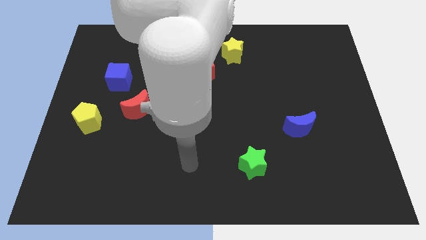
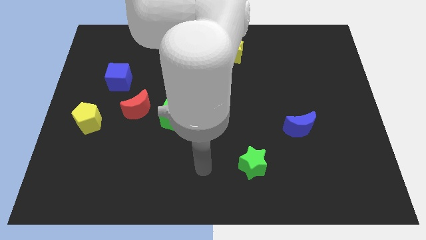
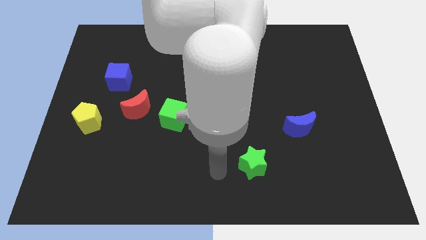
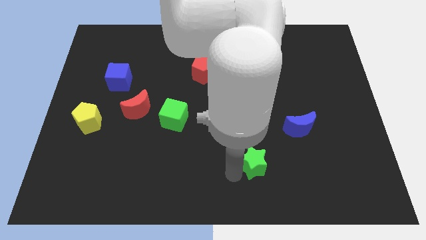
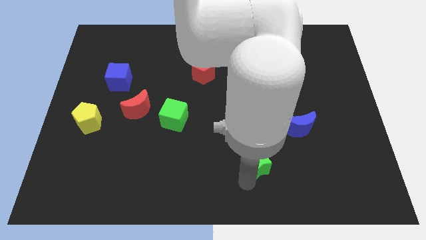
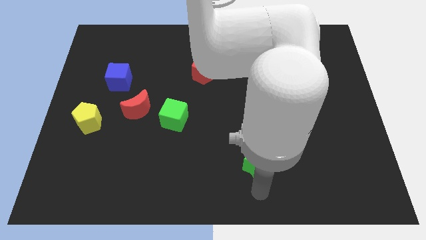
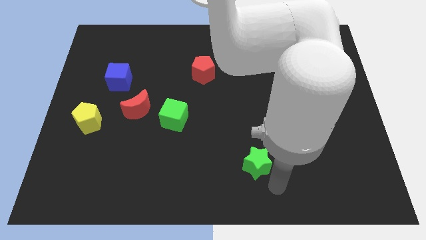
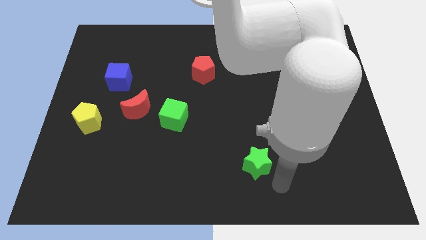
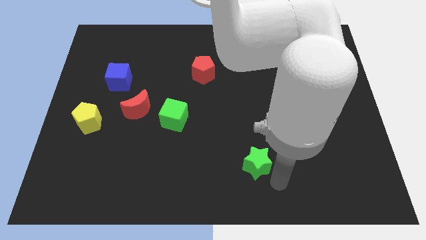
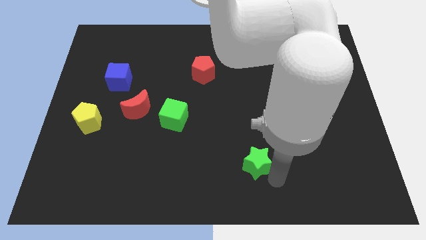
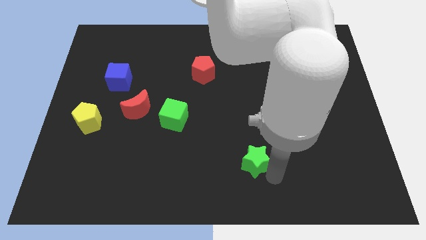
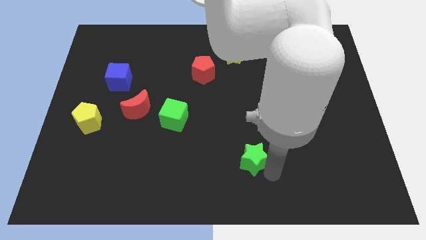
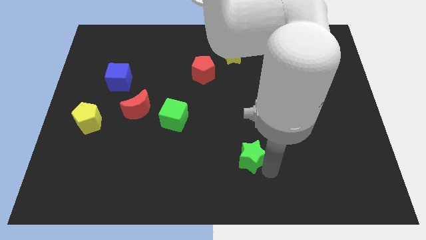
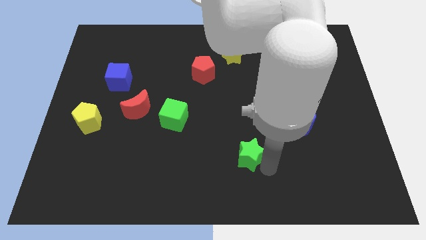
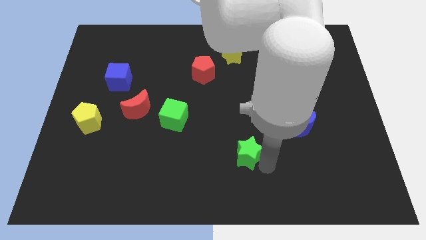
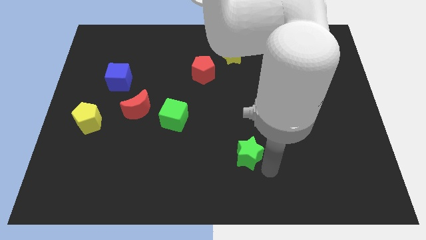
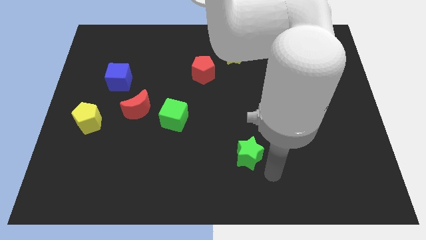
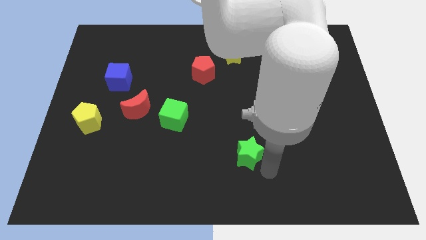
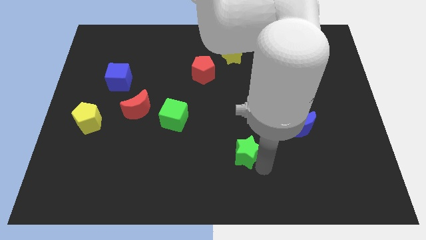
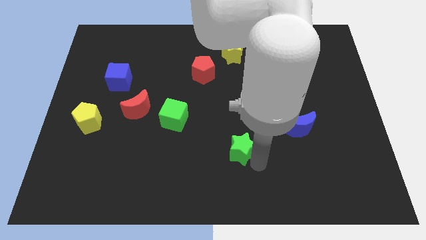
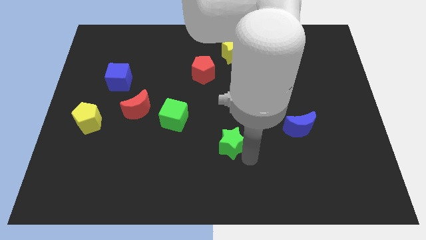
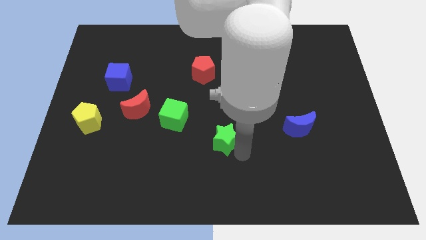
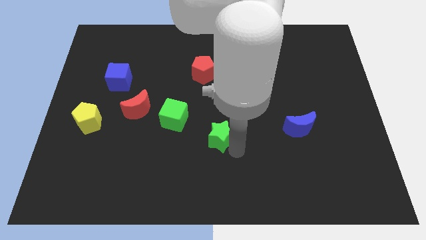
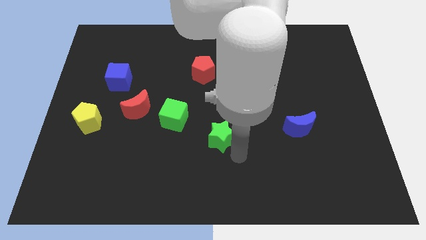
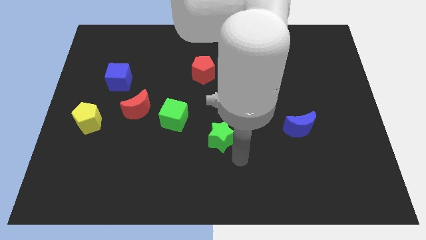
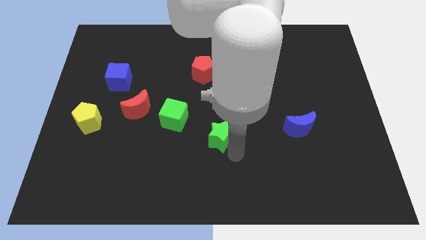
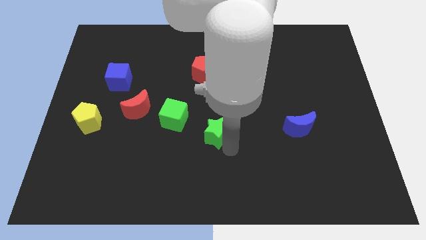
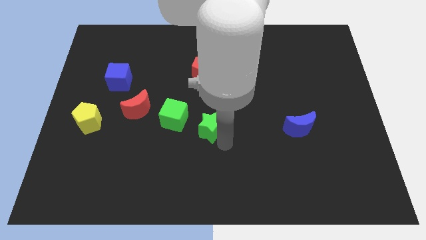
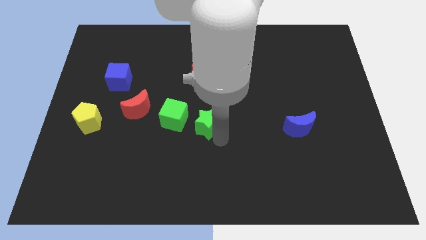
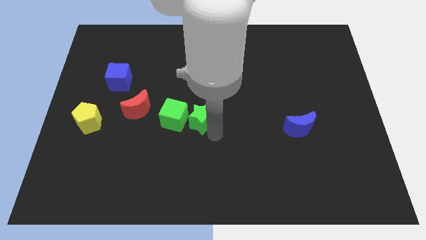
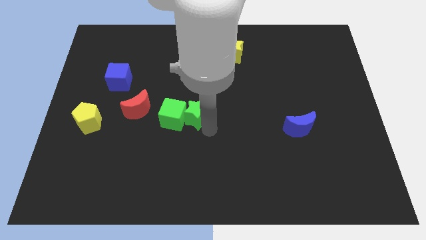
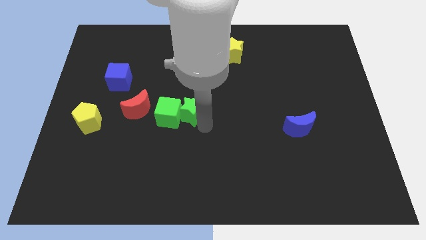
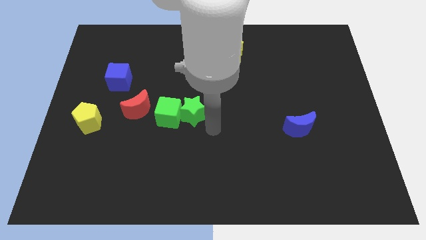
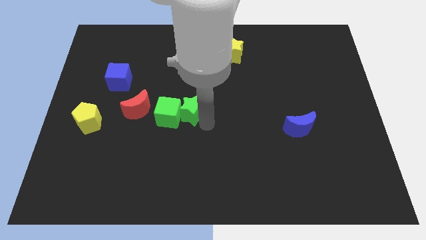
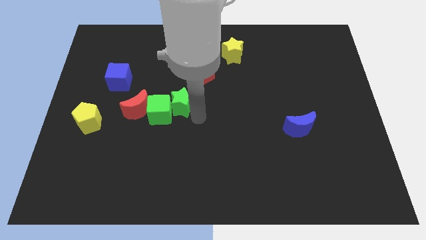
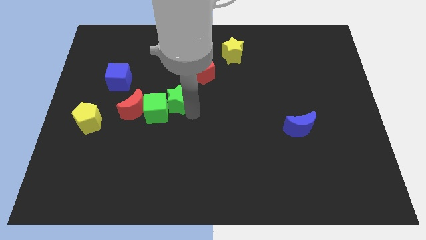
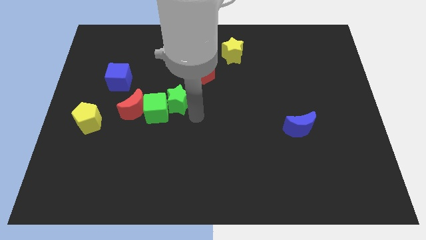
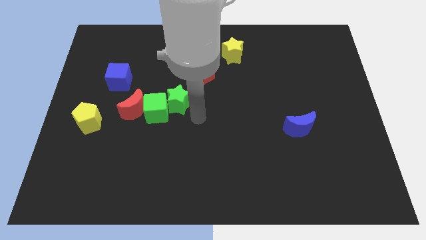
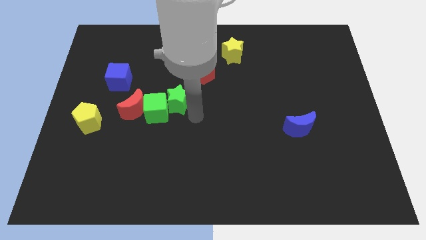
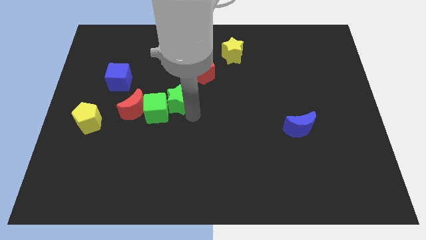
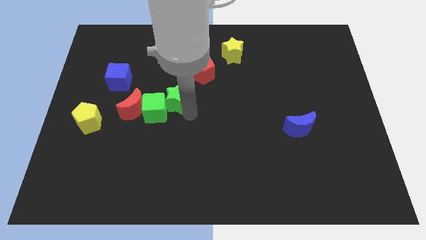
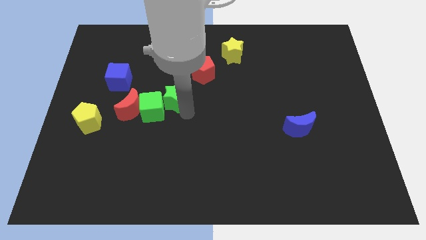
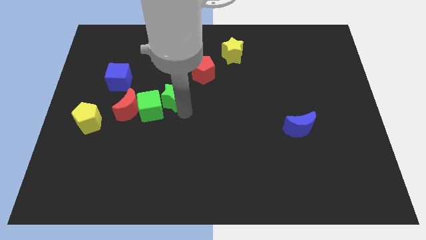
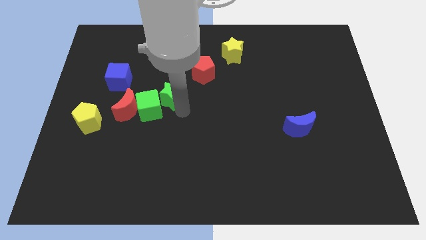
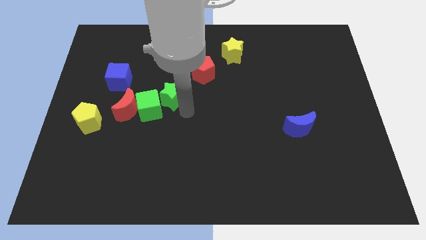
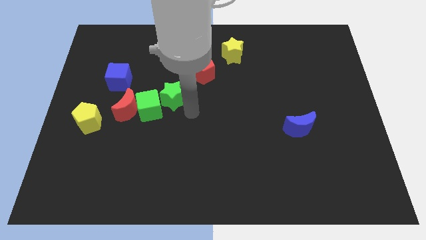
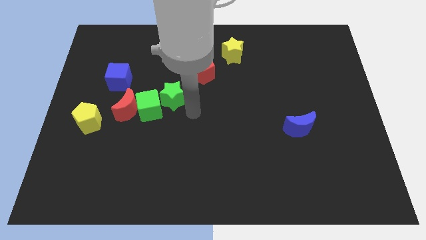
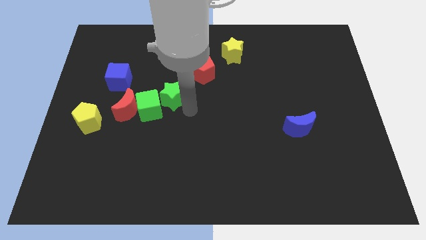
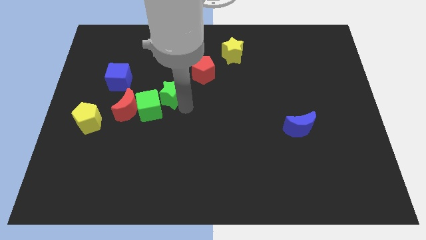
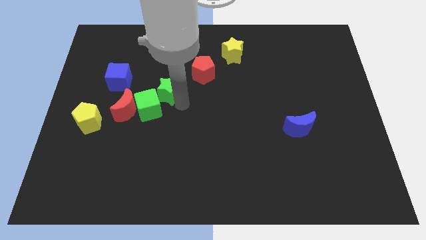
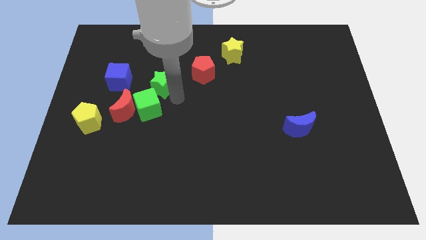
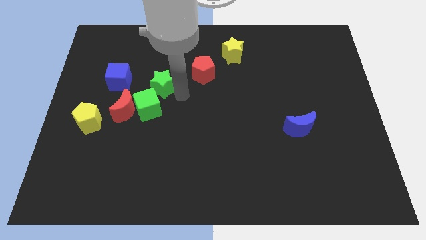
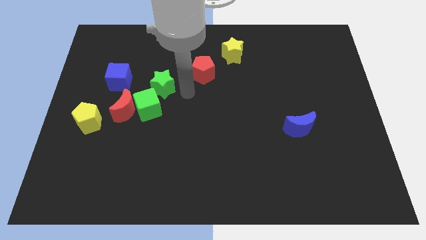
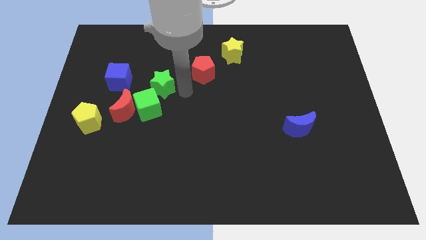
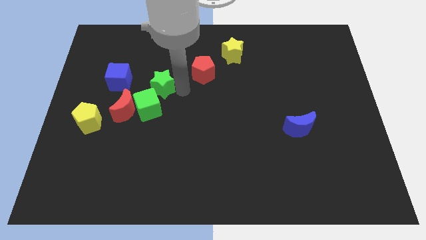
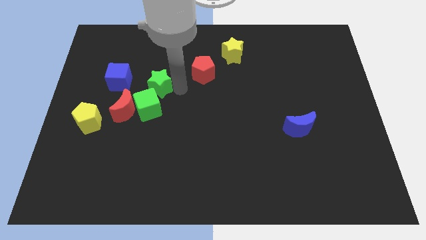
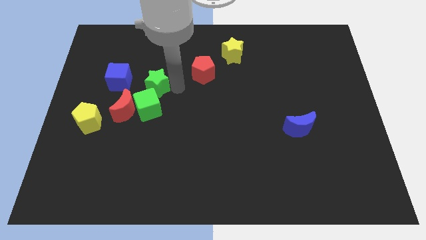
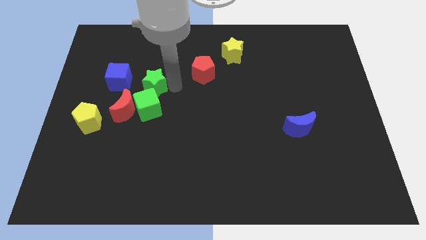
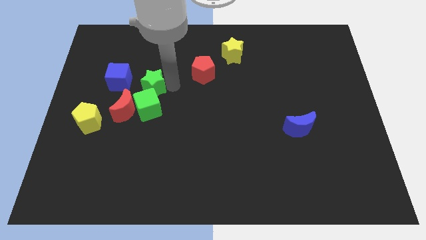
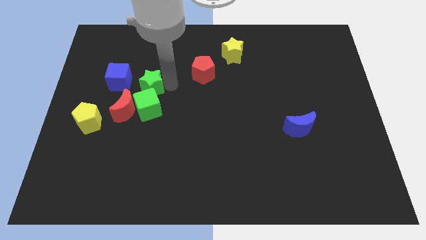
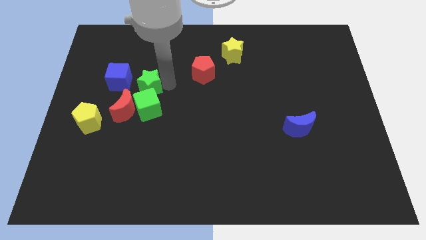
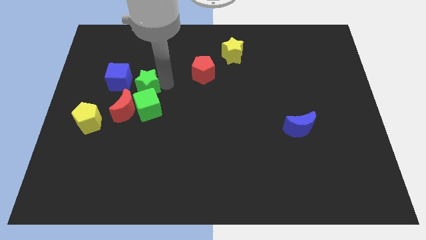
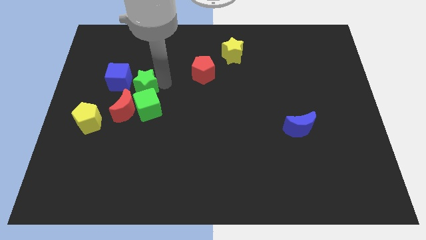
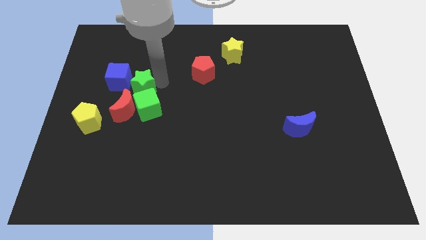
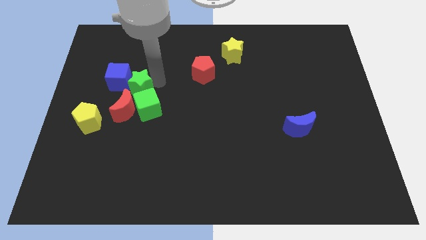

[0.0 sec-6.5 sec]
push the green star next to the blue cube

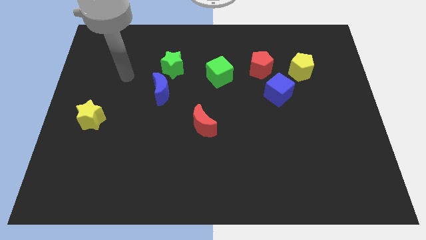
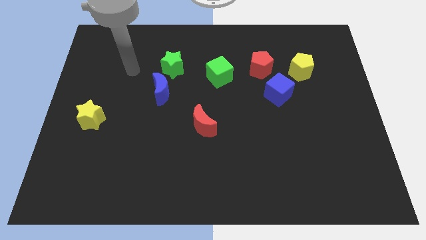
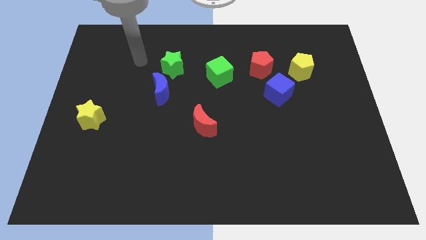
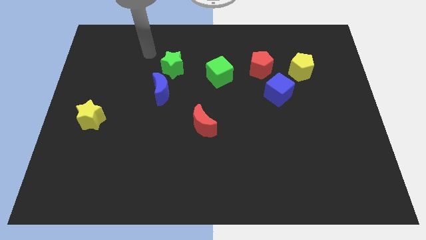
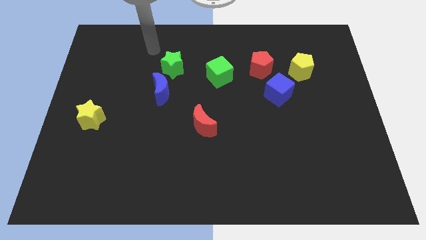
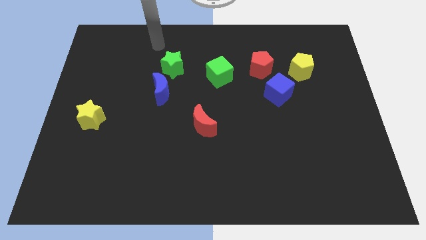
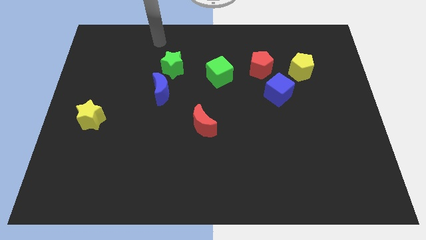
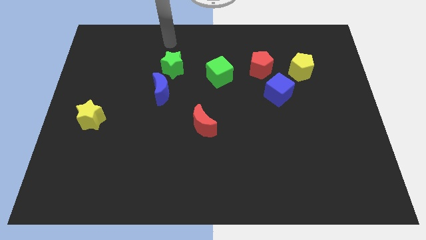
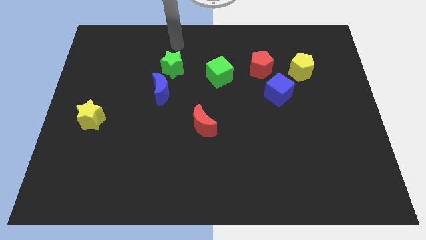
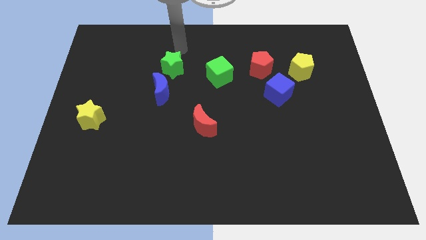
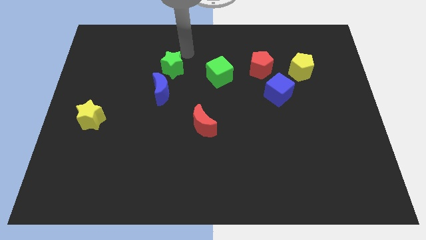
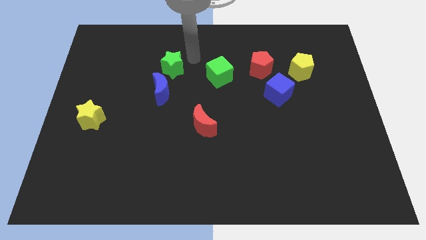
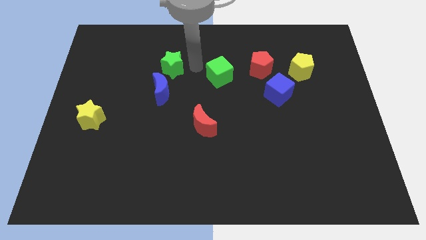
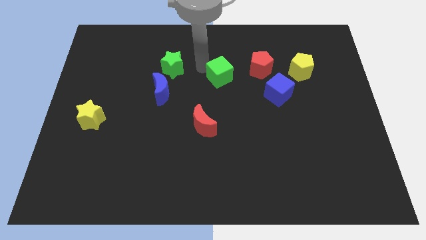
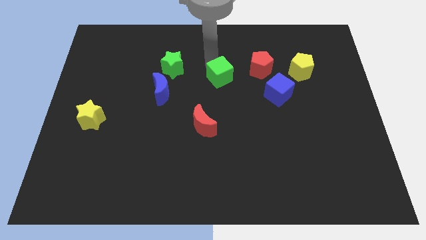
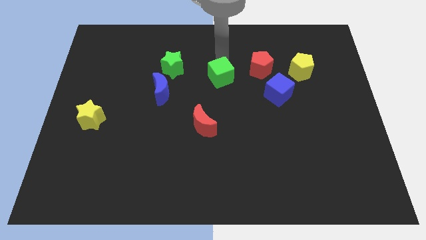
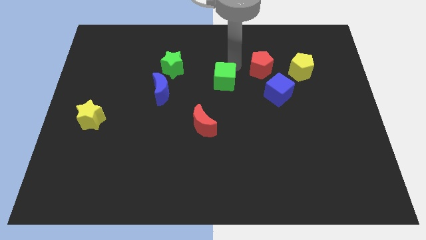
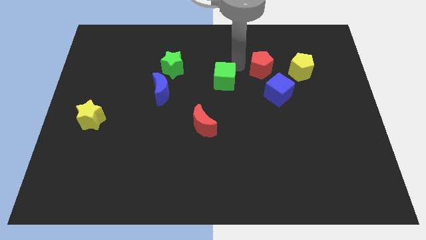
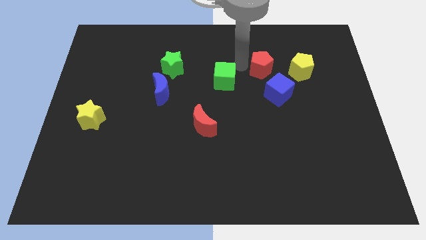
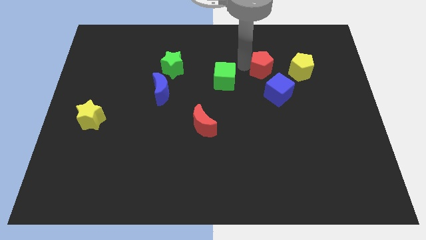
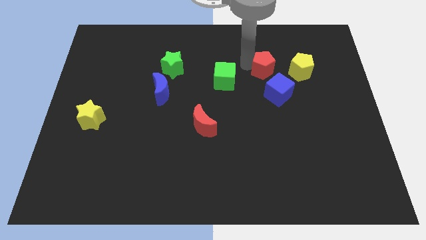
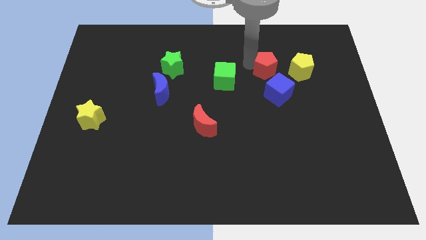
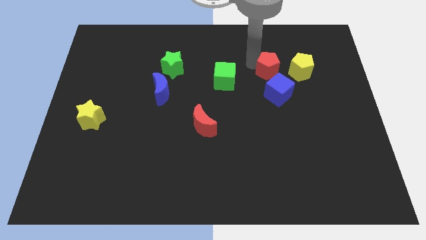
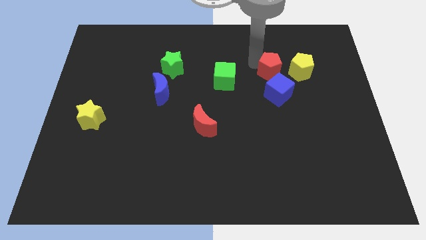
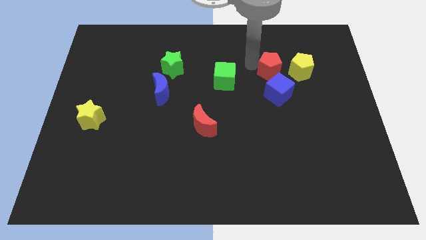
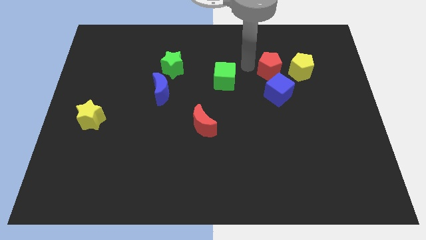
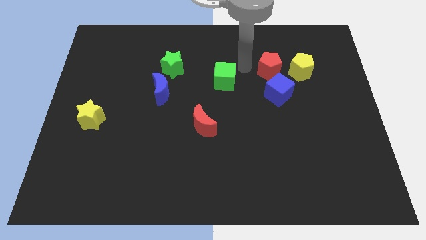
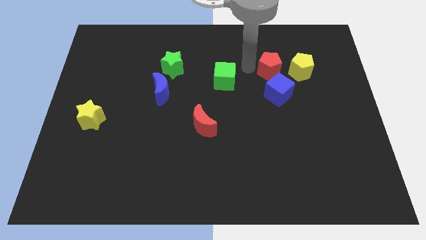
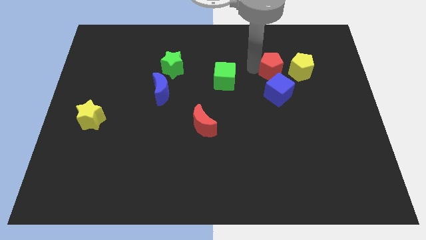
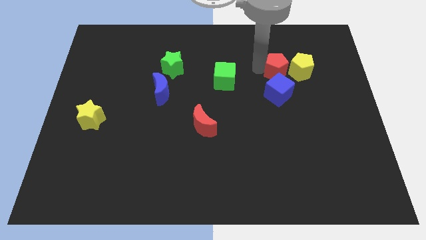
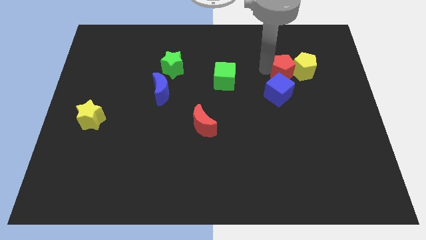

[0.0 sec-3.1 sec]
push the red pentagon to the yellow pentagon
